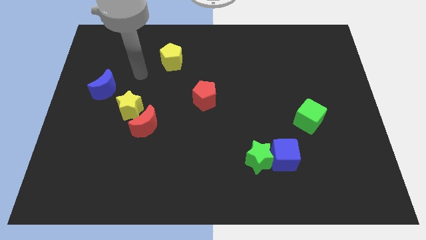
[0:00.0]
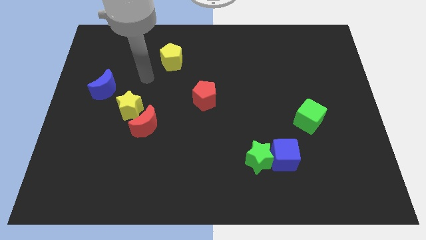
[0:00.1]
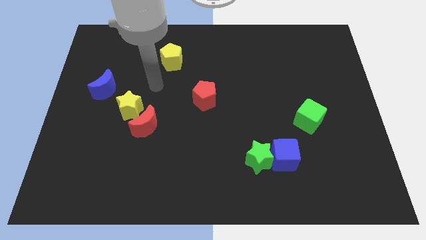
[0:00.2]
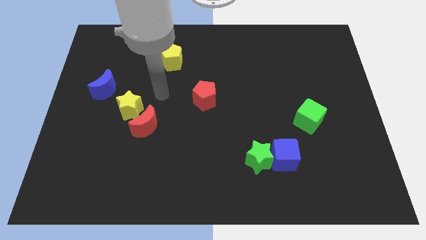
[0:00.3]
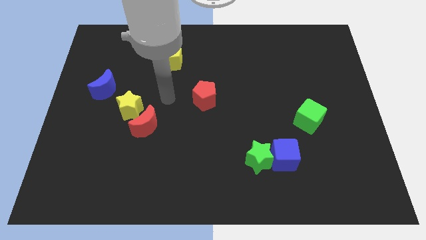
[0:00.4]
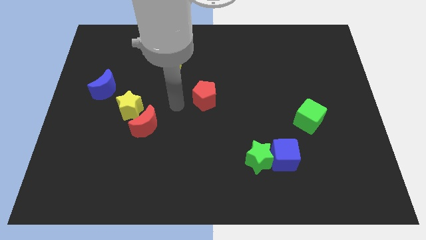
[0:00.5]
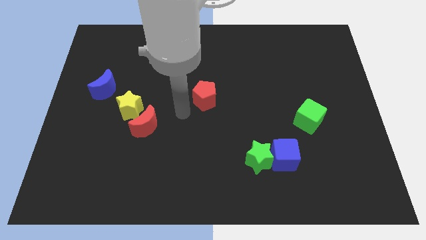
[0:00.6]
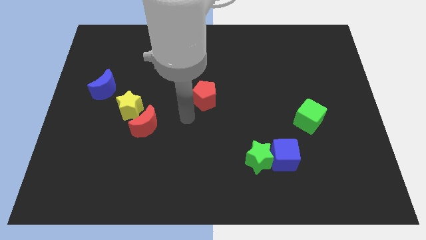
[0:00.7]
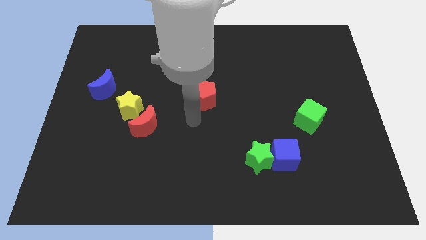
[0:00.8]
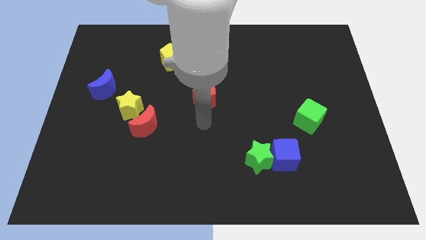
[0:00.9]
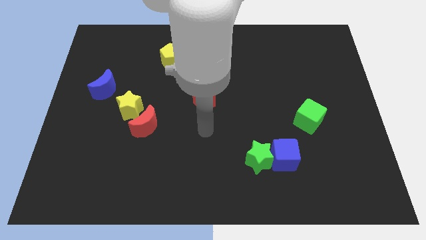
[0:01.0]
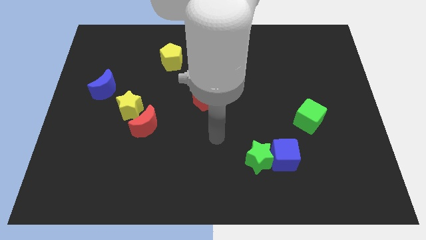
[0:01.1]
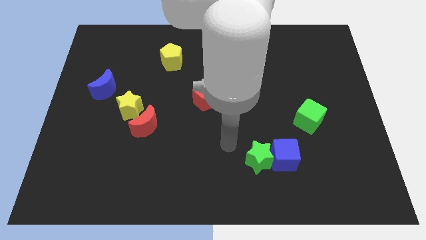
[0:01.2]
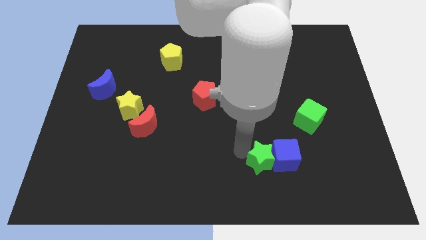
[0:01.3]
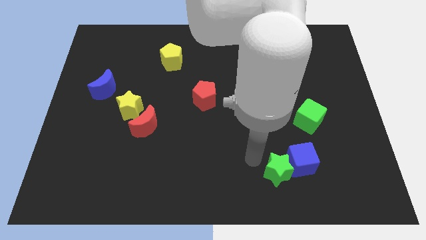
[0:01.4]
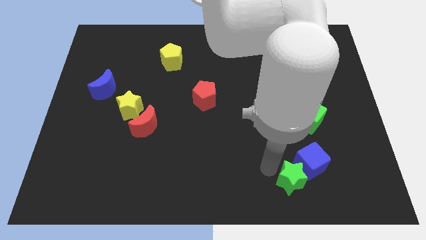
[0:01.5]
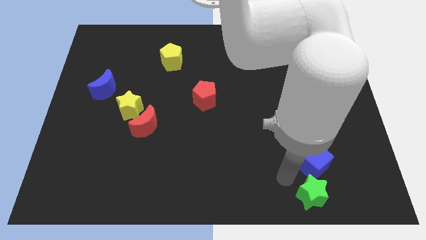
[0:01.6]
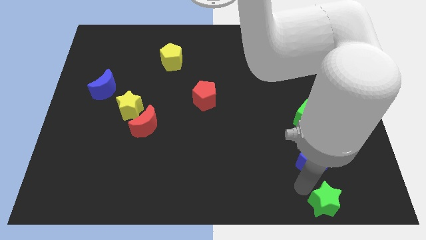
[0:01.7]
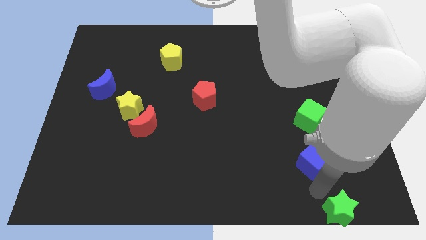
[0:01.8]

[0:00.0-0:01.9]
pull the blue cube apart from the green star

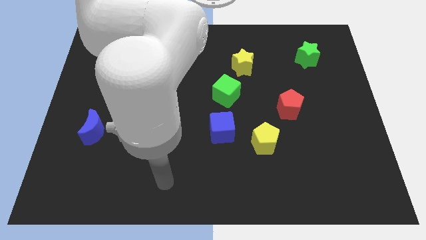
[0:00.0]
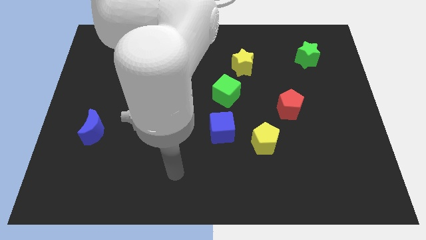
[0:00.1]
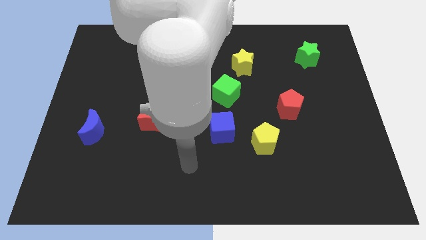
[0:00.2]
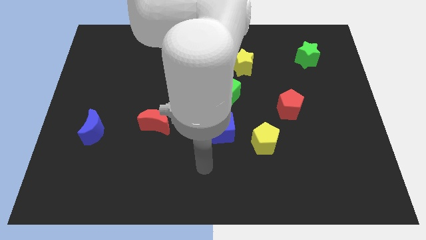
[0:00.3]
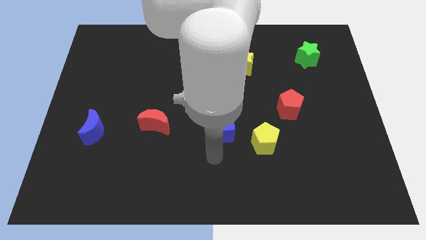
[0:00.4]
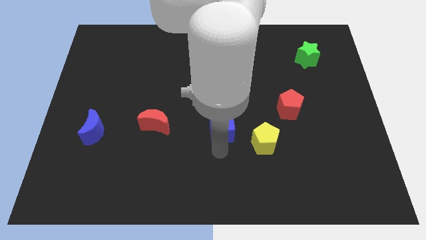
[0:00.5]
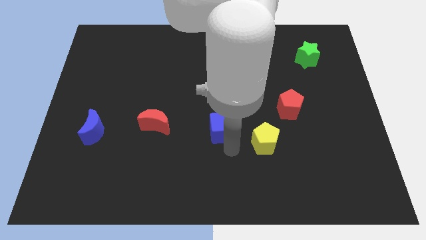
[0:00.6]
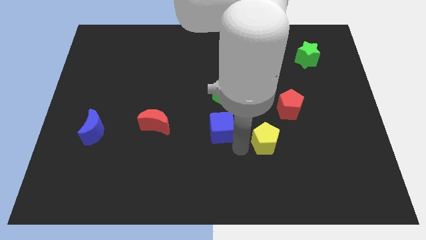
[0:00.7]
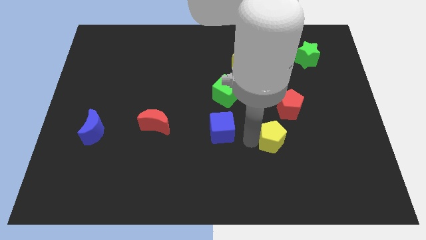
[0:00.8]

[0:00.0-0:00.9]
move the blue cube away from the yellow pentagon

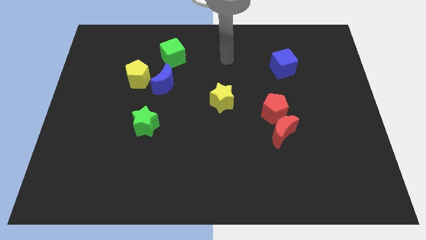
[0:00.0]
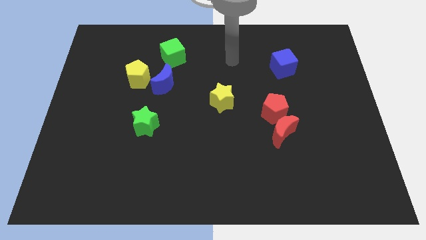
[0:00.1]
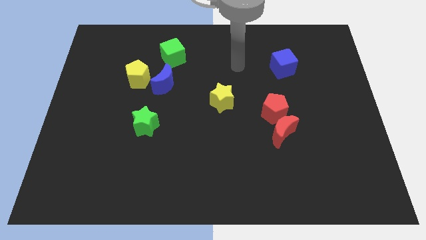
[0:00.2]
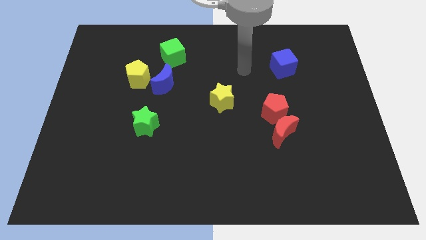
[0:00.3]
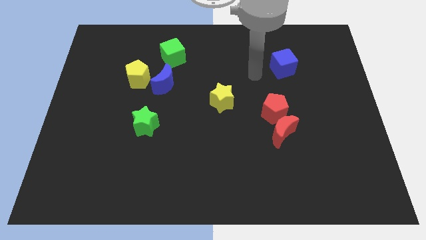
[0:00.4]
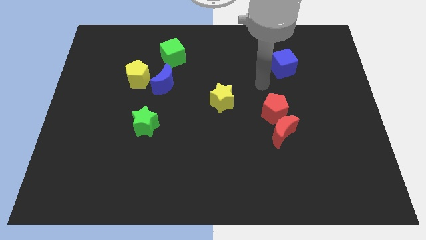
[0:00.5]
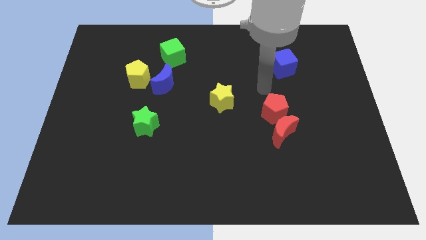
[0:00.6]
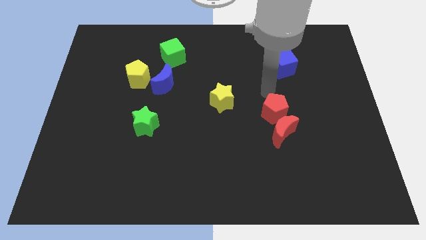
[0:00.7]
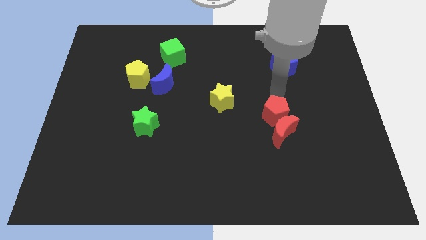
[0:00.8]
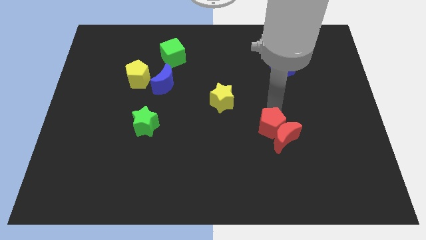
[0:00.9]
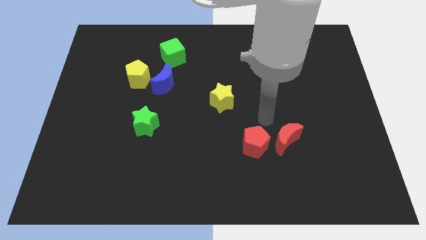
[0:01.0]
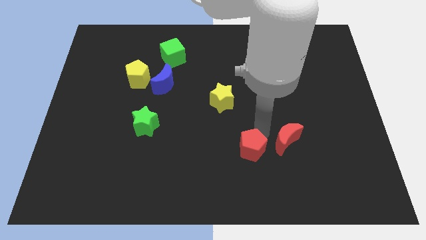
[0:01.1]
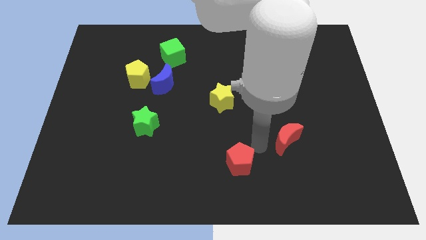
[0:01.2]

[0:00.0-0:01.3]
move the red moon away from the red pentagon

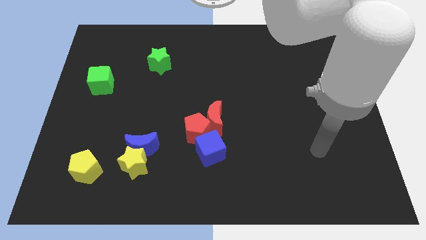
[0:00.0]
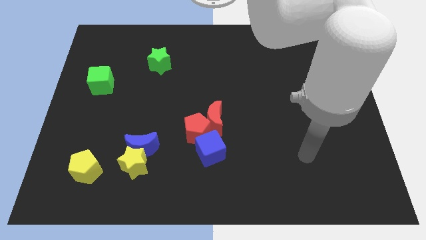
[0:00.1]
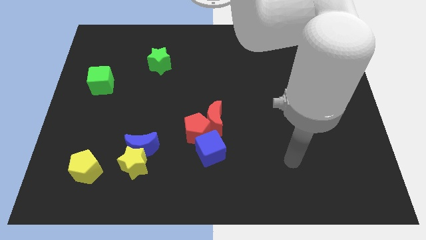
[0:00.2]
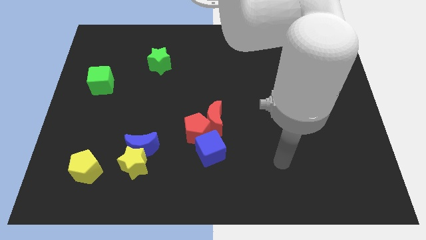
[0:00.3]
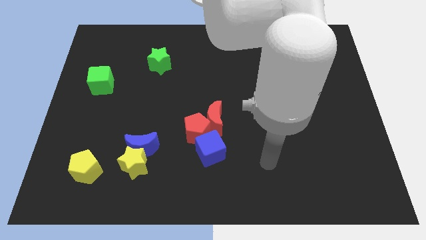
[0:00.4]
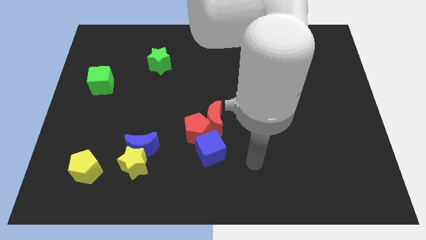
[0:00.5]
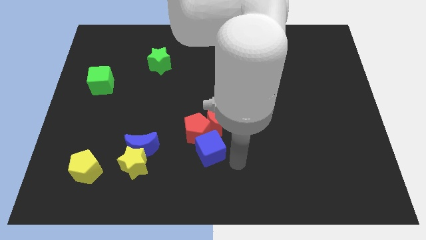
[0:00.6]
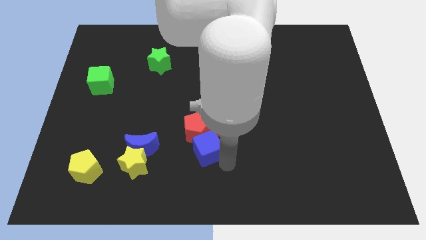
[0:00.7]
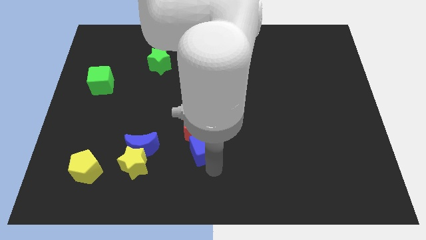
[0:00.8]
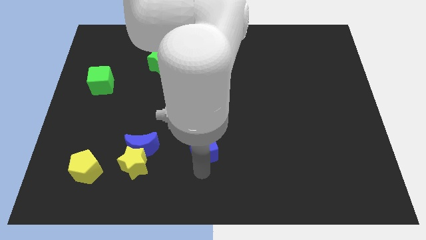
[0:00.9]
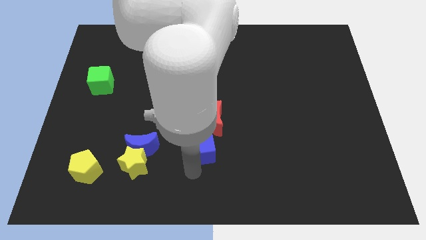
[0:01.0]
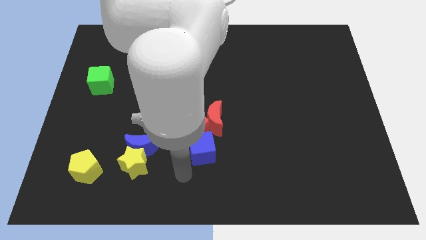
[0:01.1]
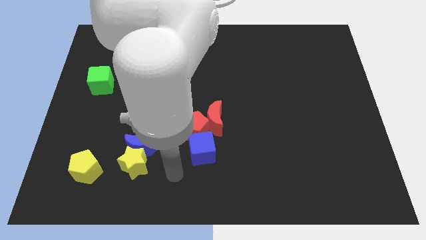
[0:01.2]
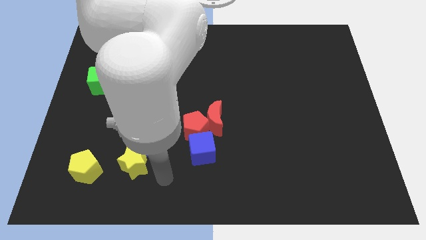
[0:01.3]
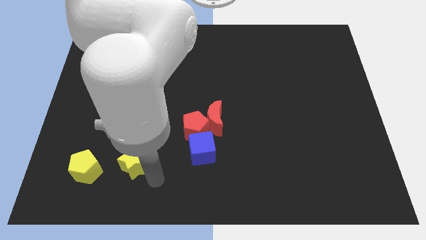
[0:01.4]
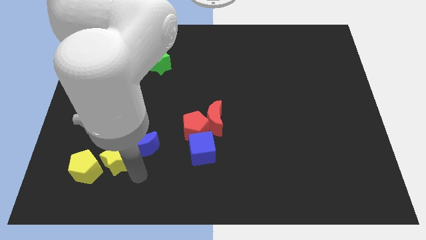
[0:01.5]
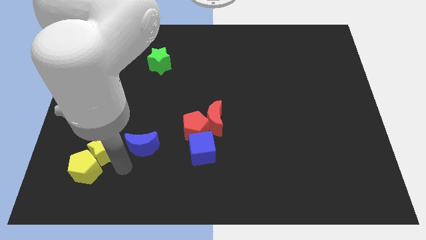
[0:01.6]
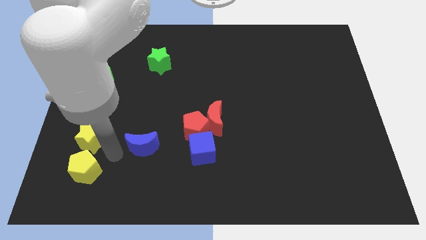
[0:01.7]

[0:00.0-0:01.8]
pull the blue moon apart from the yellow star

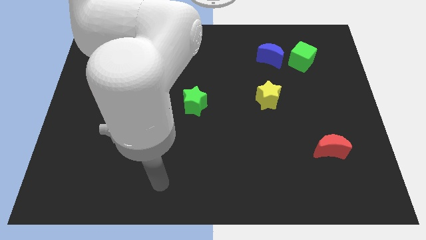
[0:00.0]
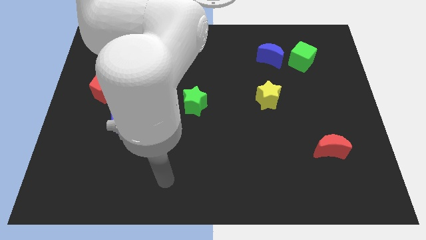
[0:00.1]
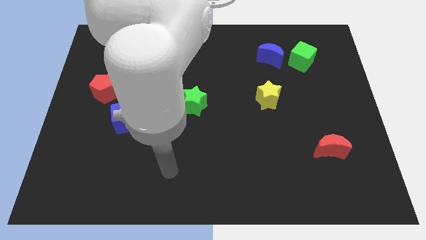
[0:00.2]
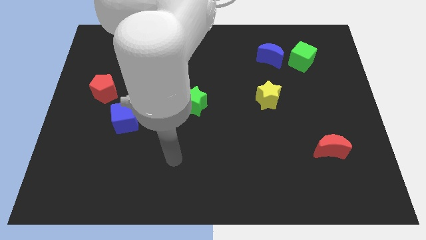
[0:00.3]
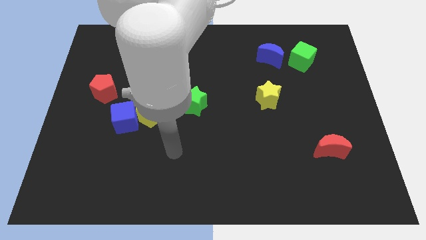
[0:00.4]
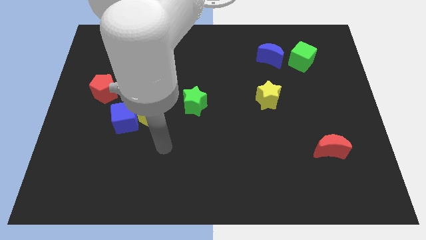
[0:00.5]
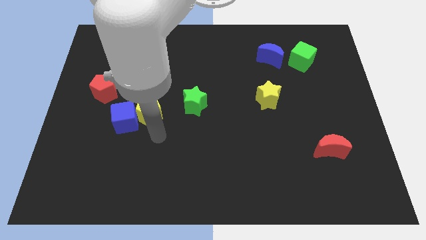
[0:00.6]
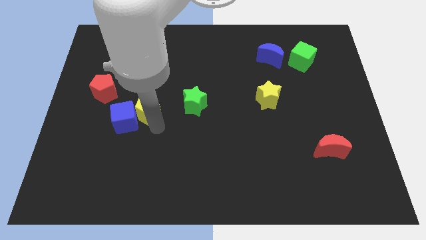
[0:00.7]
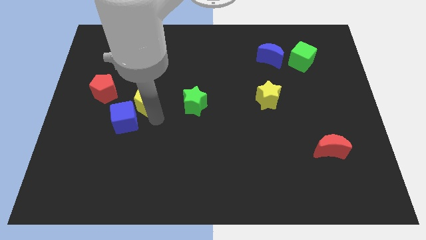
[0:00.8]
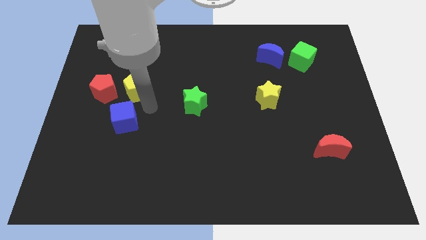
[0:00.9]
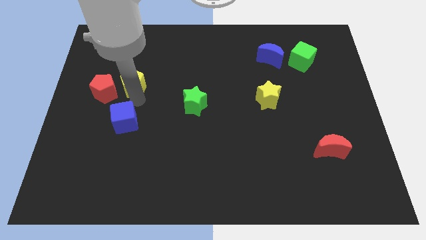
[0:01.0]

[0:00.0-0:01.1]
pull the blue cube apart from the yellow pentagon

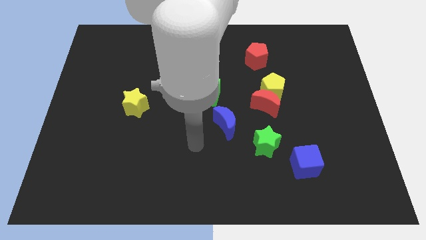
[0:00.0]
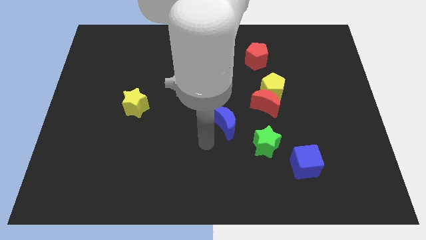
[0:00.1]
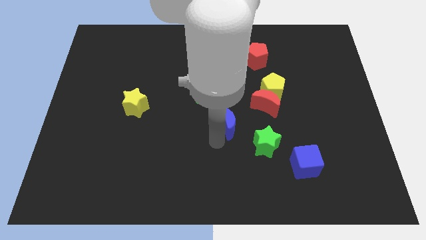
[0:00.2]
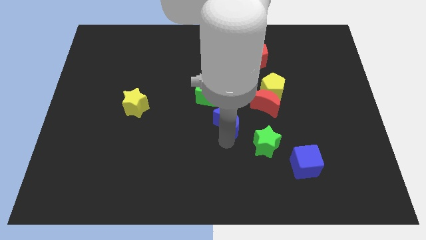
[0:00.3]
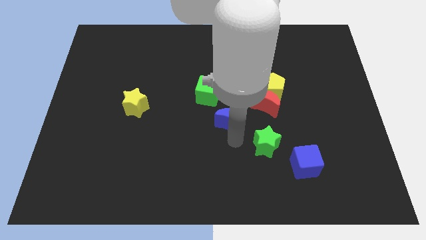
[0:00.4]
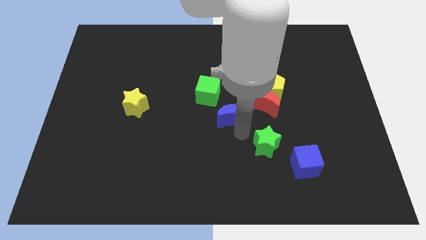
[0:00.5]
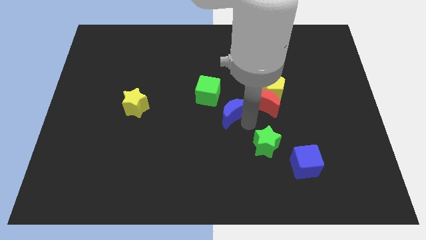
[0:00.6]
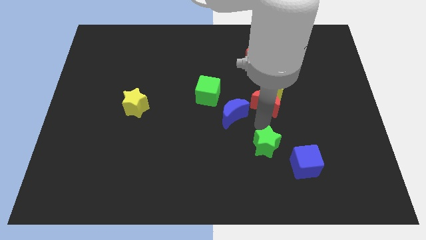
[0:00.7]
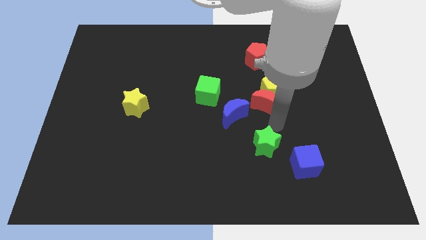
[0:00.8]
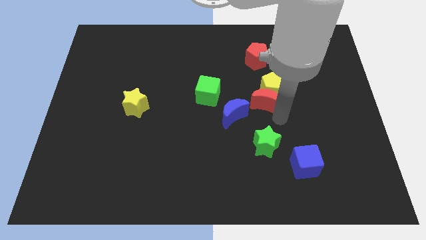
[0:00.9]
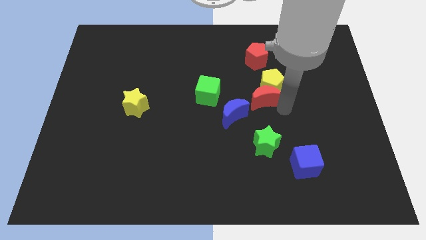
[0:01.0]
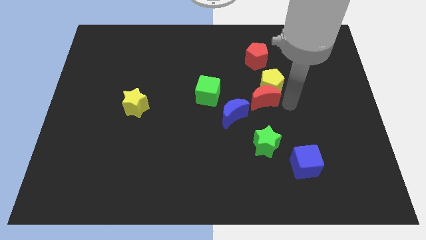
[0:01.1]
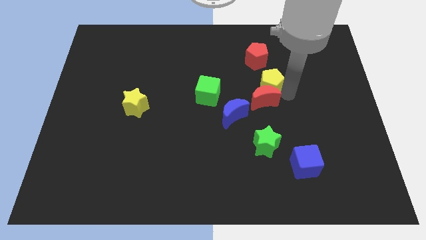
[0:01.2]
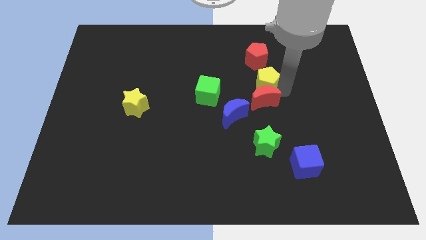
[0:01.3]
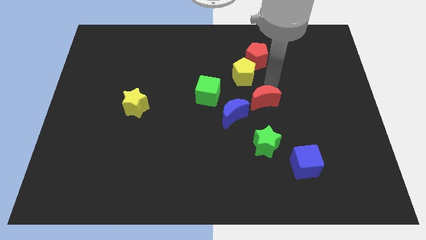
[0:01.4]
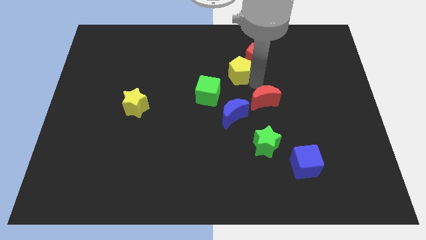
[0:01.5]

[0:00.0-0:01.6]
separate the red moon from the yellow pentagon

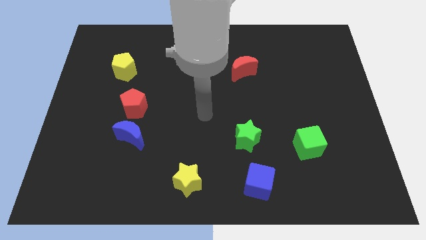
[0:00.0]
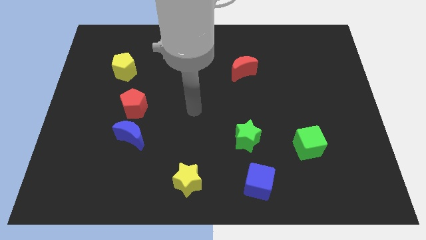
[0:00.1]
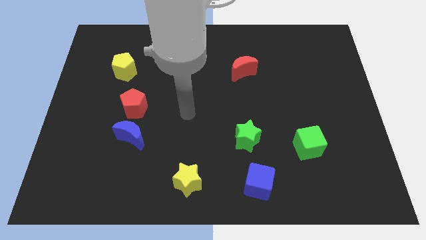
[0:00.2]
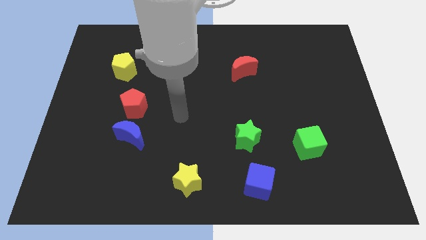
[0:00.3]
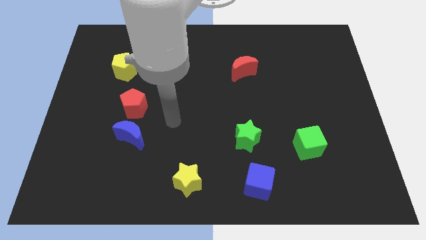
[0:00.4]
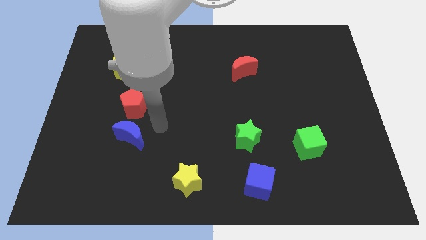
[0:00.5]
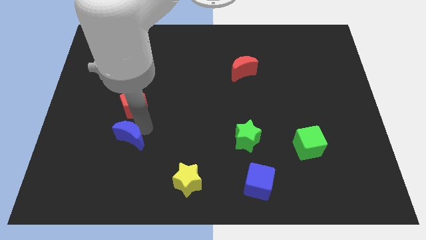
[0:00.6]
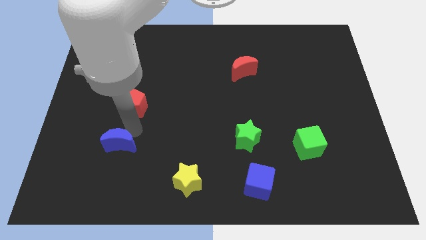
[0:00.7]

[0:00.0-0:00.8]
separate the red pentagon from the blue moon
